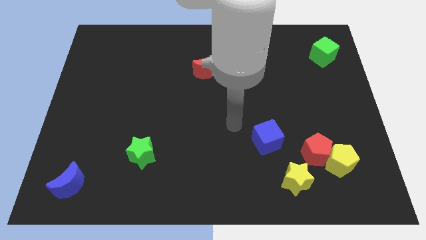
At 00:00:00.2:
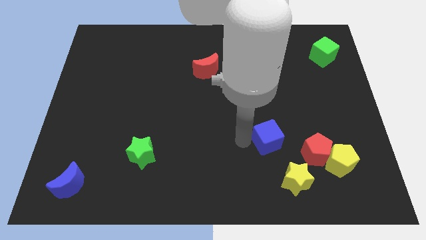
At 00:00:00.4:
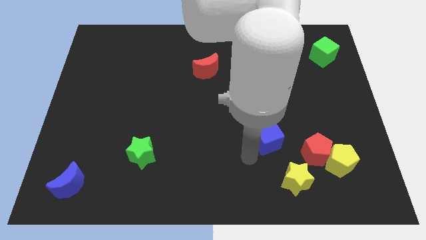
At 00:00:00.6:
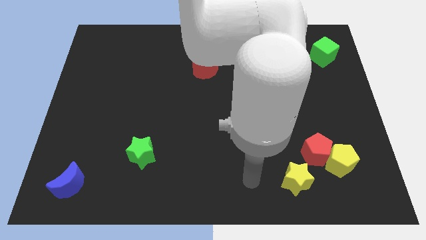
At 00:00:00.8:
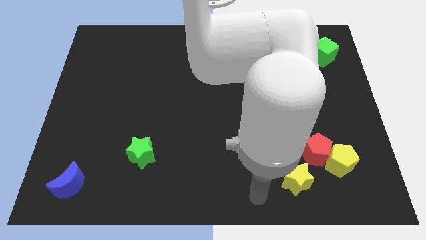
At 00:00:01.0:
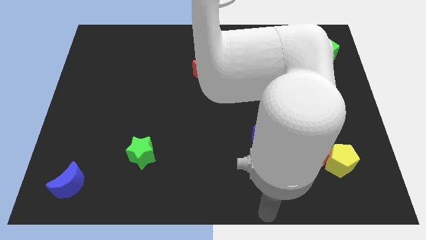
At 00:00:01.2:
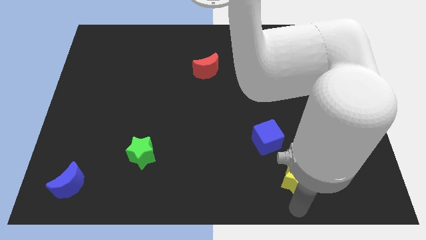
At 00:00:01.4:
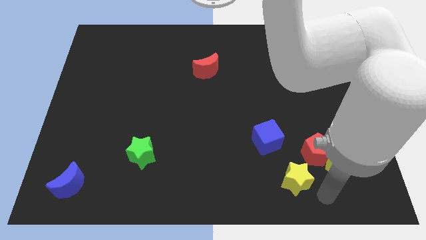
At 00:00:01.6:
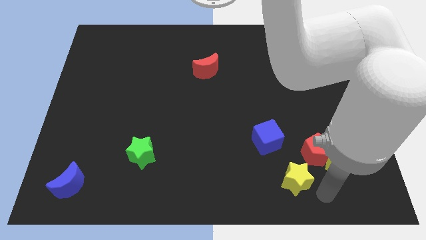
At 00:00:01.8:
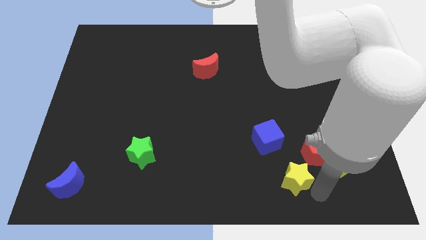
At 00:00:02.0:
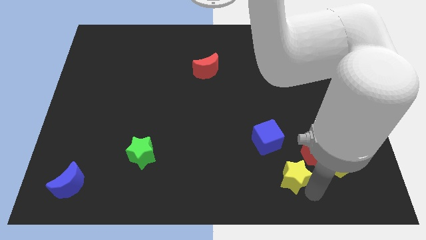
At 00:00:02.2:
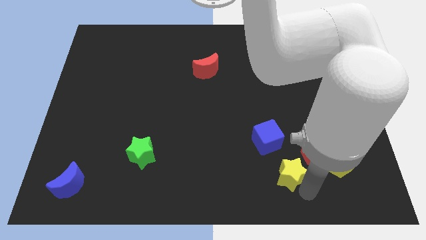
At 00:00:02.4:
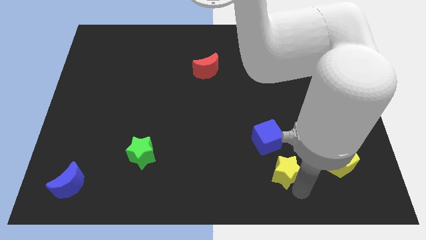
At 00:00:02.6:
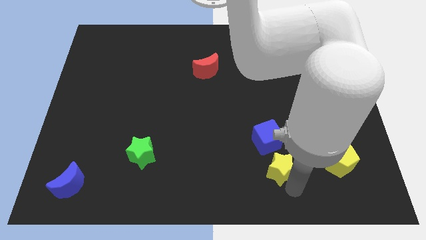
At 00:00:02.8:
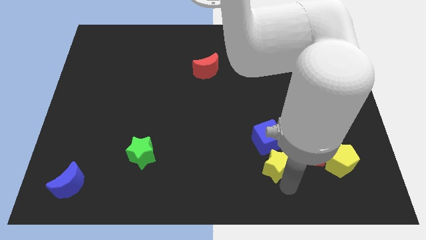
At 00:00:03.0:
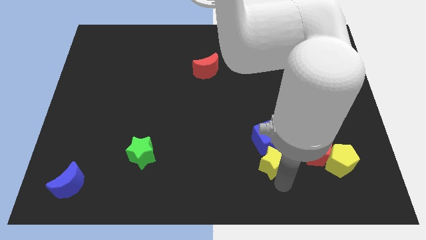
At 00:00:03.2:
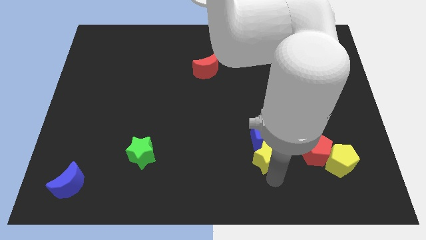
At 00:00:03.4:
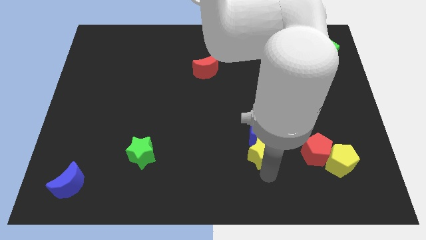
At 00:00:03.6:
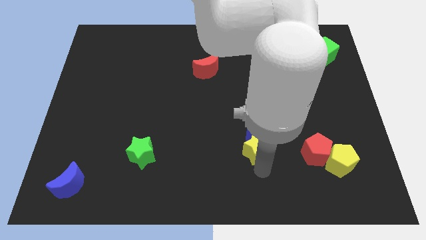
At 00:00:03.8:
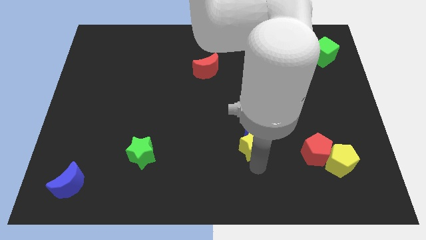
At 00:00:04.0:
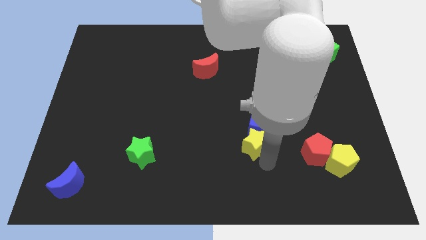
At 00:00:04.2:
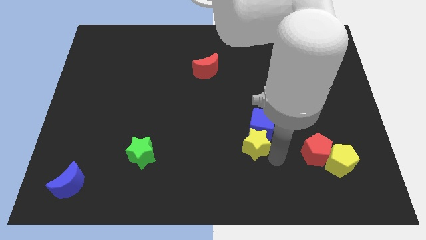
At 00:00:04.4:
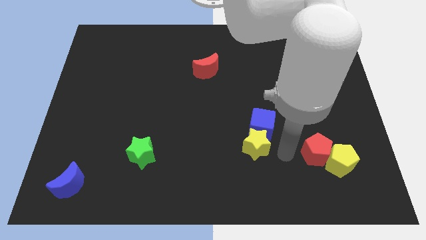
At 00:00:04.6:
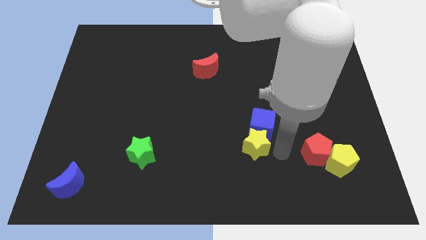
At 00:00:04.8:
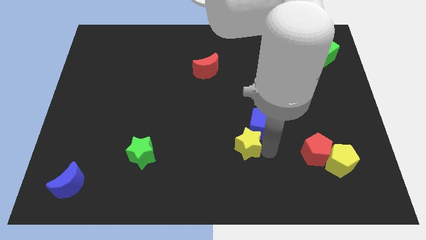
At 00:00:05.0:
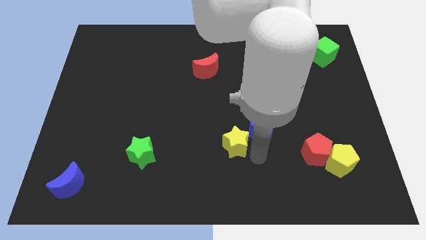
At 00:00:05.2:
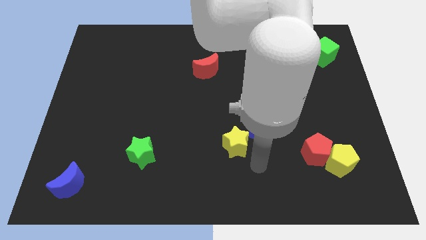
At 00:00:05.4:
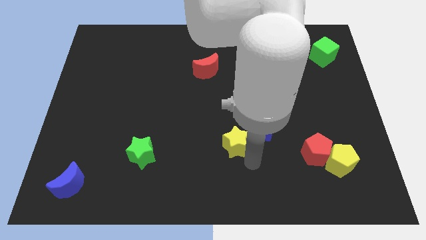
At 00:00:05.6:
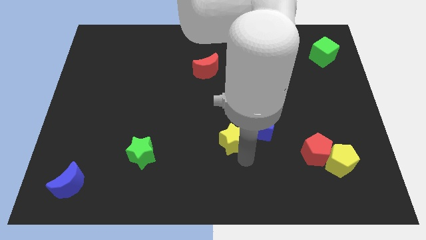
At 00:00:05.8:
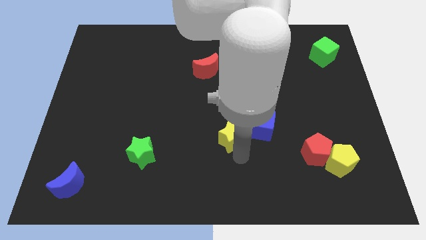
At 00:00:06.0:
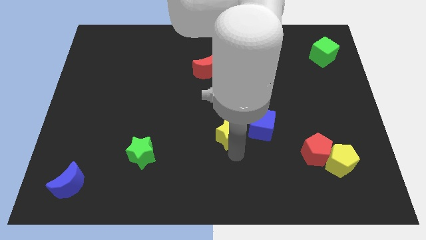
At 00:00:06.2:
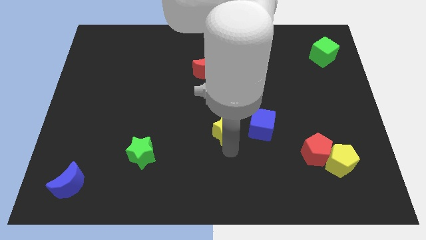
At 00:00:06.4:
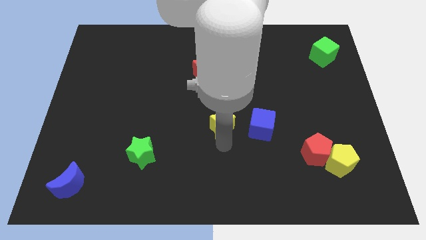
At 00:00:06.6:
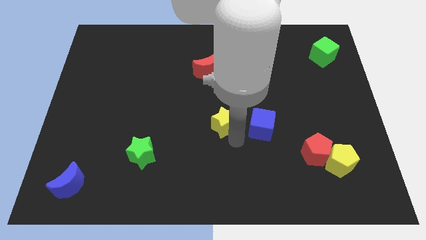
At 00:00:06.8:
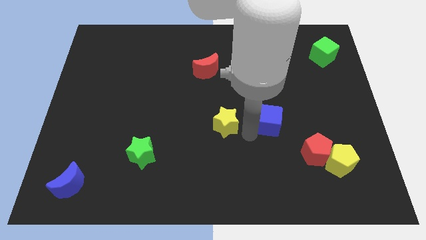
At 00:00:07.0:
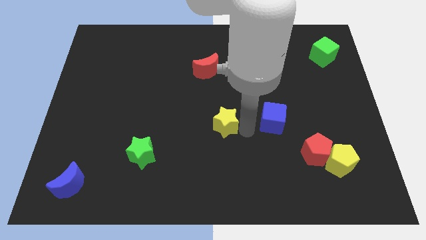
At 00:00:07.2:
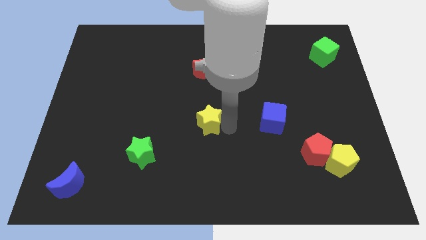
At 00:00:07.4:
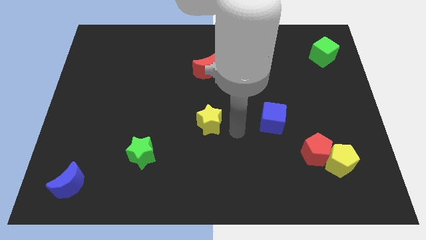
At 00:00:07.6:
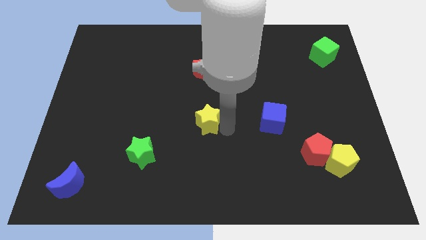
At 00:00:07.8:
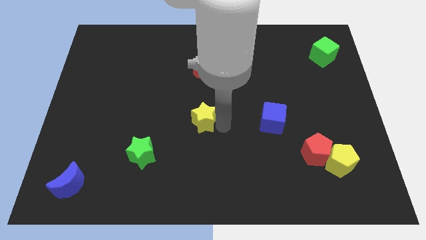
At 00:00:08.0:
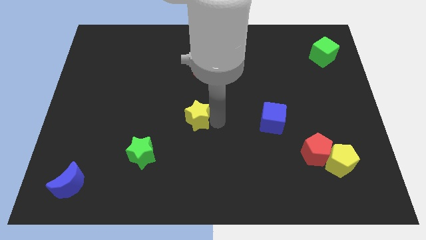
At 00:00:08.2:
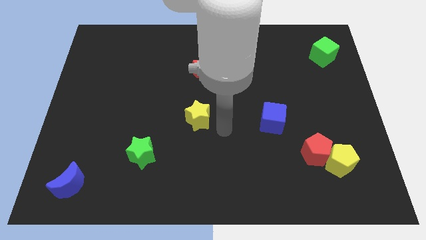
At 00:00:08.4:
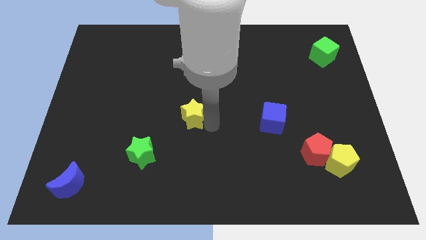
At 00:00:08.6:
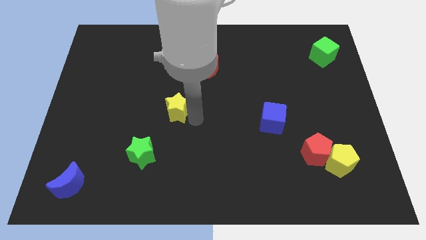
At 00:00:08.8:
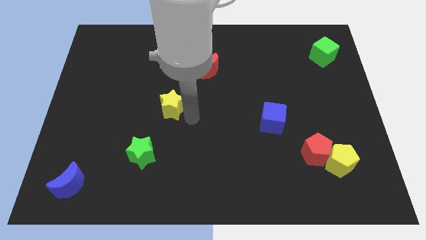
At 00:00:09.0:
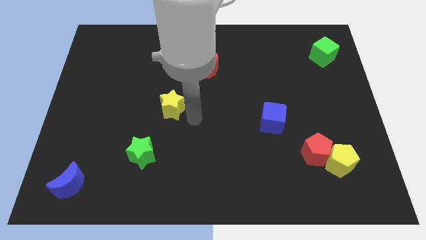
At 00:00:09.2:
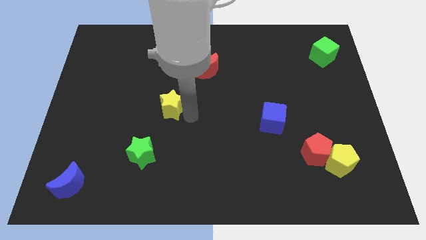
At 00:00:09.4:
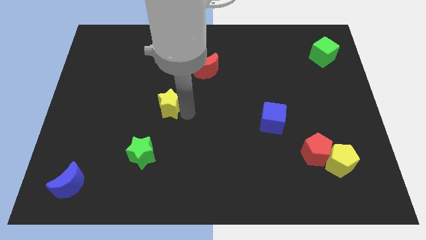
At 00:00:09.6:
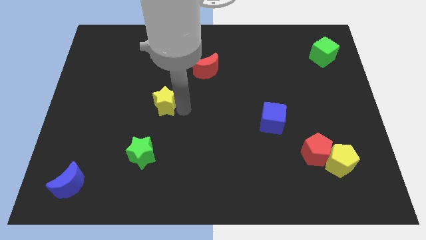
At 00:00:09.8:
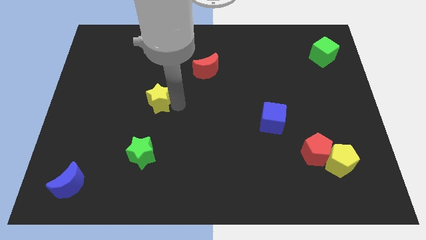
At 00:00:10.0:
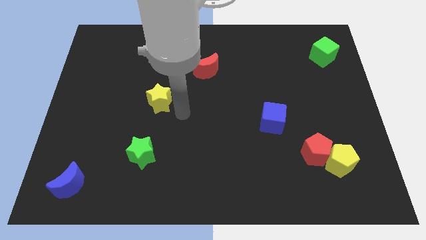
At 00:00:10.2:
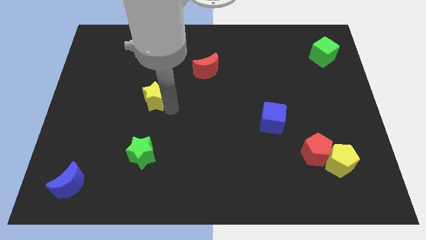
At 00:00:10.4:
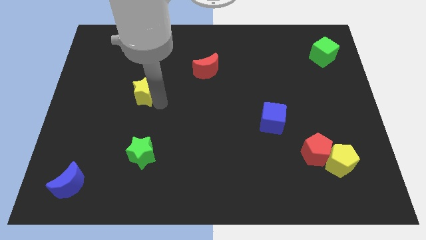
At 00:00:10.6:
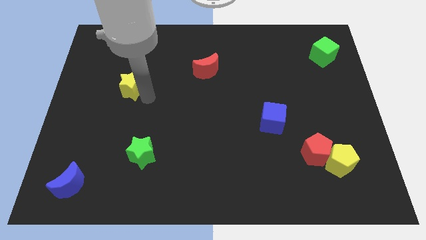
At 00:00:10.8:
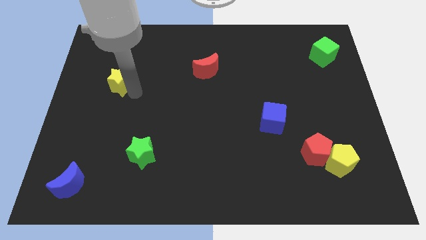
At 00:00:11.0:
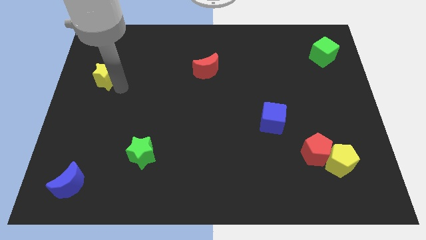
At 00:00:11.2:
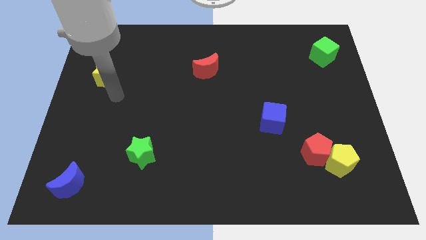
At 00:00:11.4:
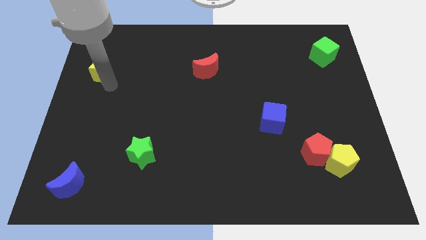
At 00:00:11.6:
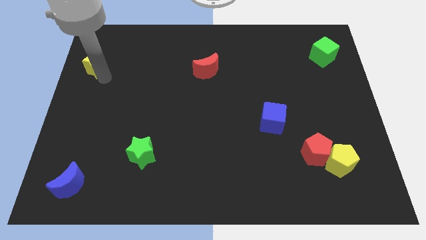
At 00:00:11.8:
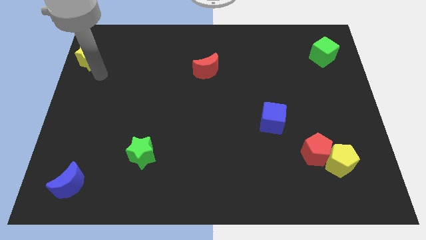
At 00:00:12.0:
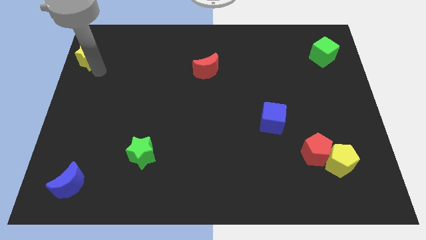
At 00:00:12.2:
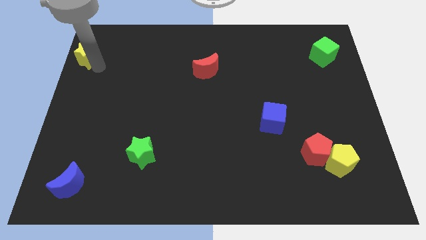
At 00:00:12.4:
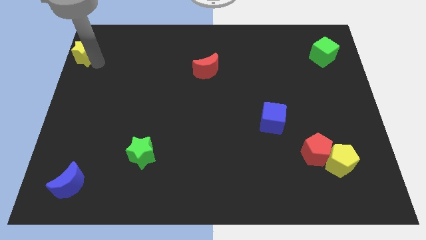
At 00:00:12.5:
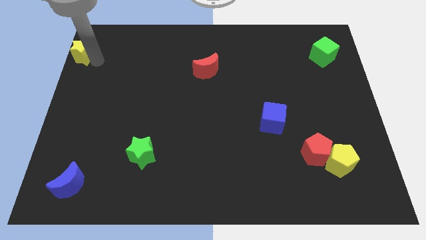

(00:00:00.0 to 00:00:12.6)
push the yellow star to the top left corner
